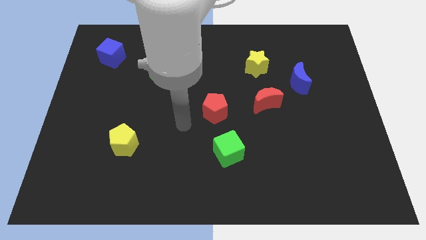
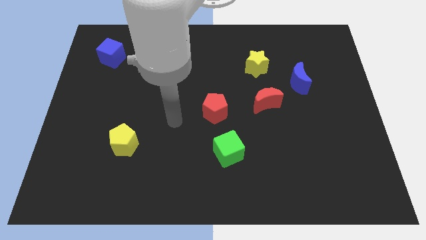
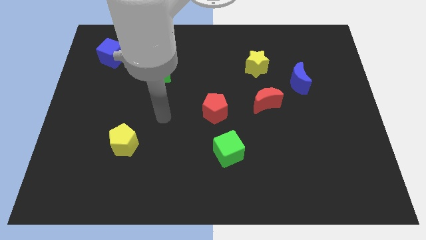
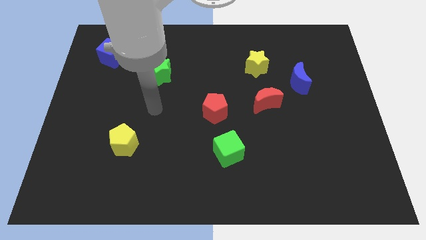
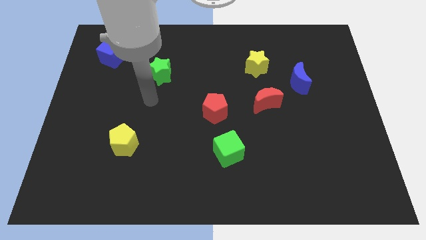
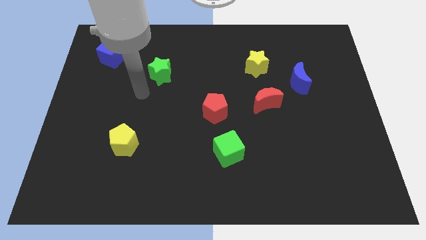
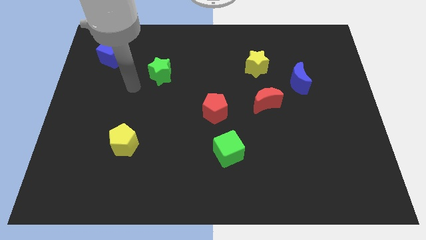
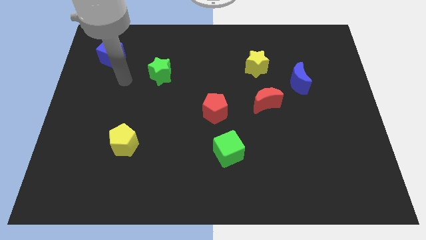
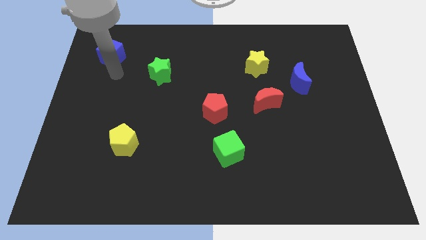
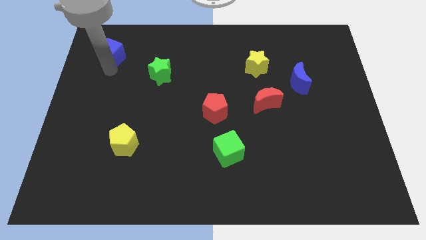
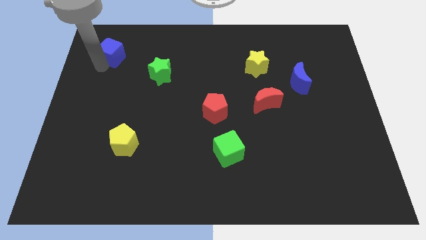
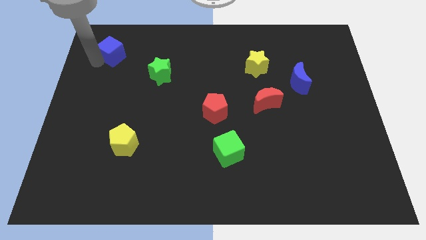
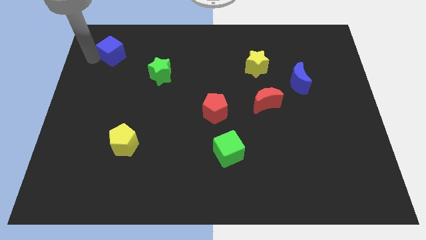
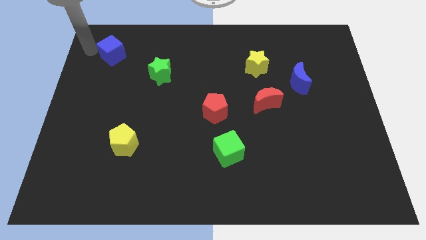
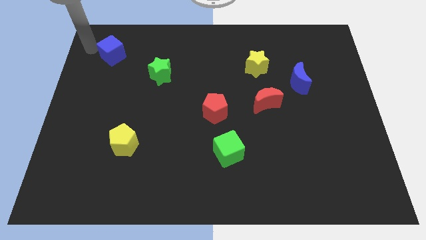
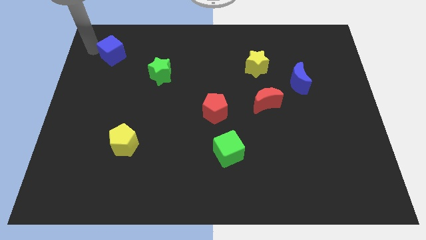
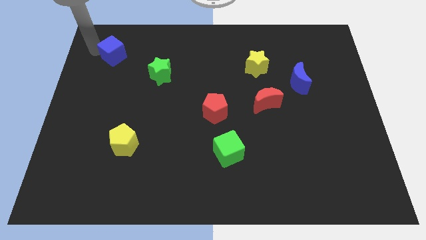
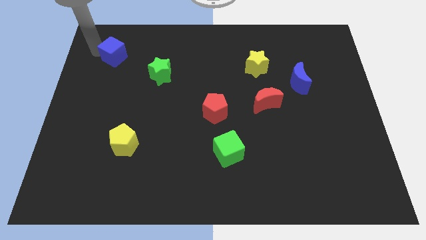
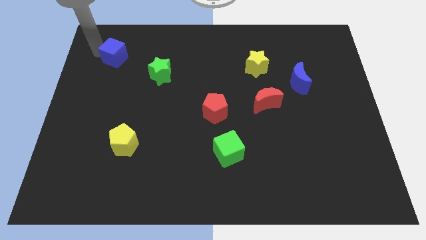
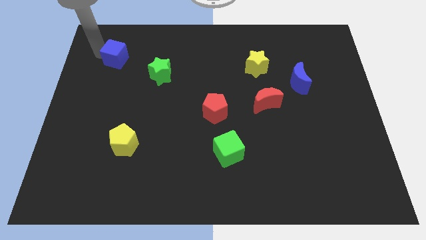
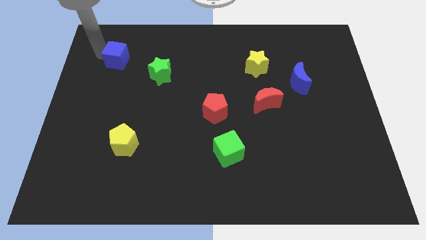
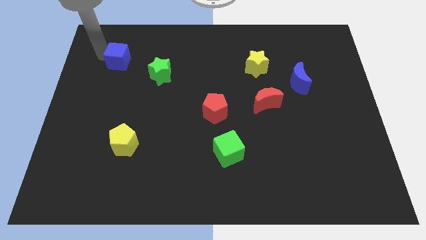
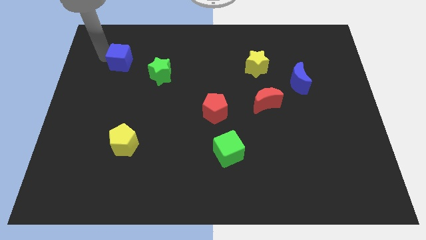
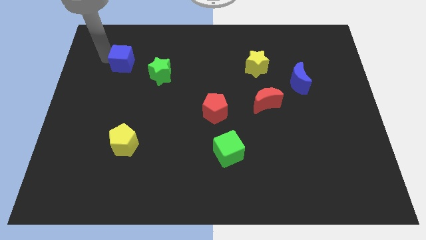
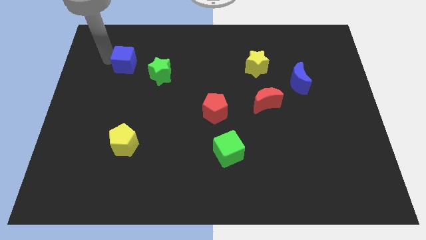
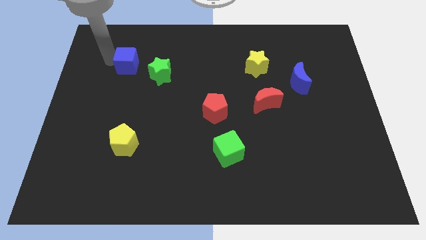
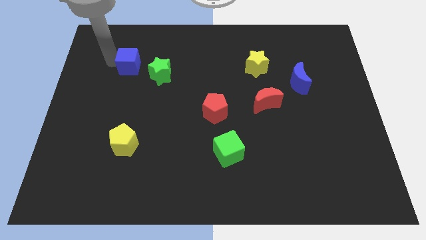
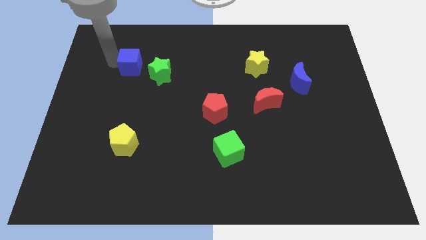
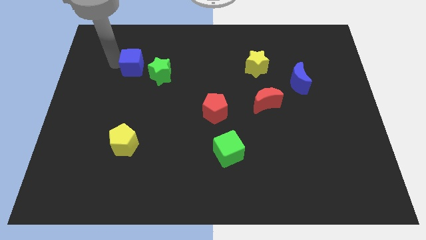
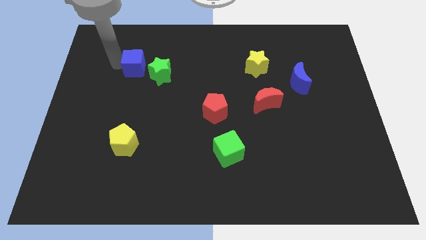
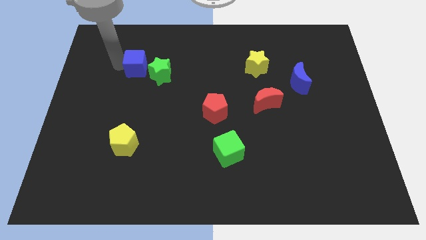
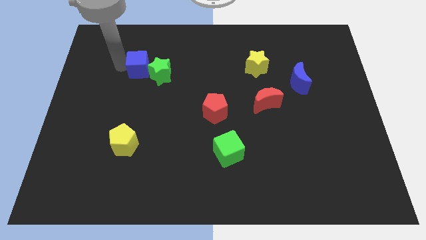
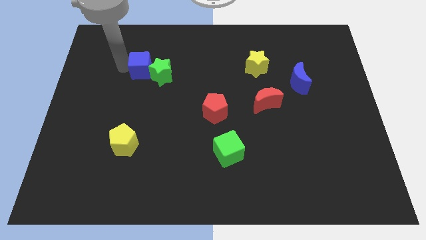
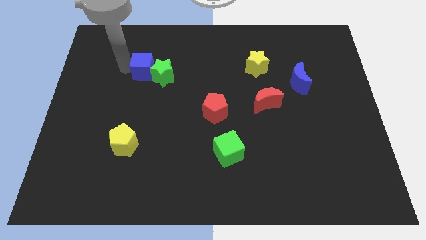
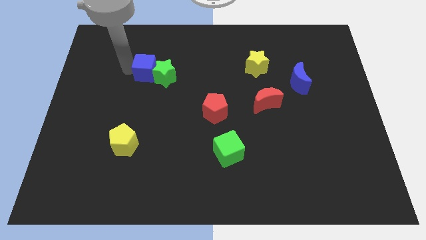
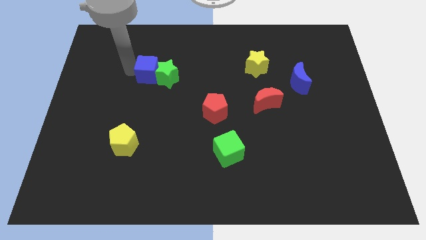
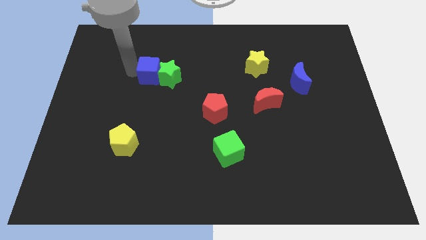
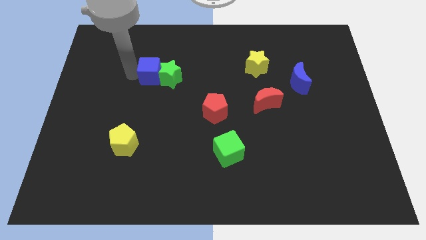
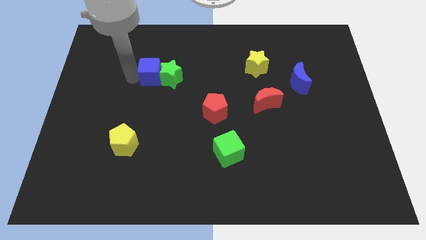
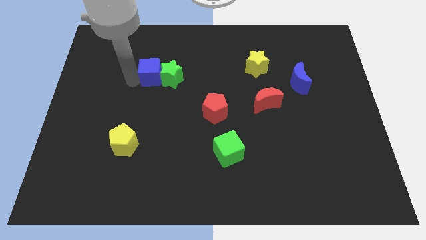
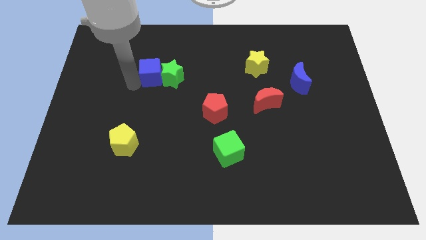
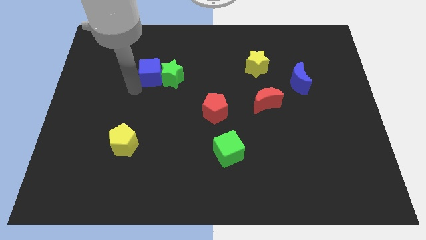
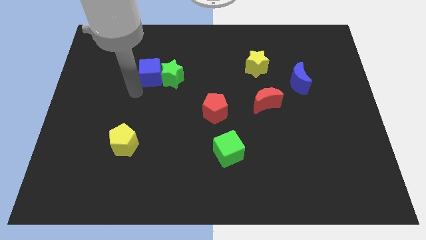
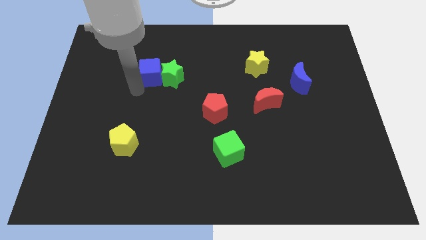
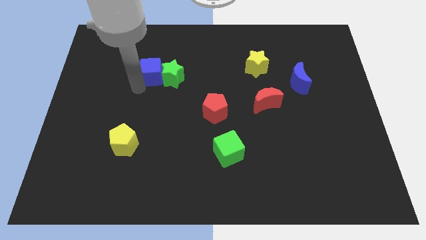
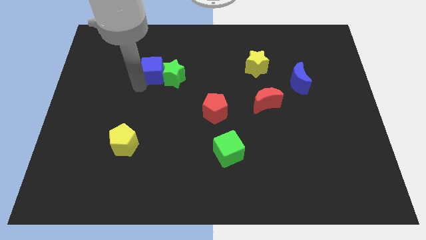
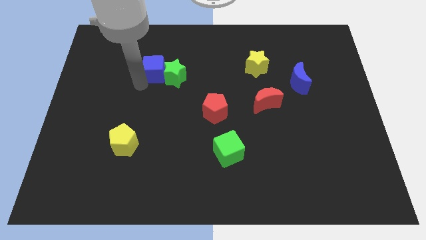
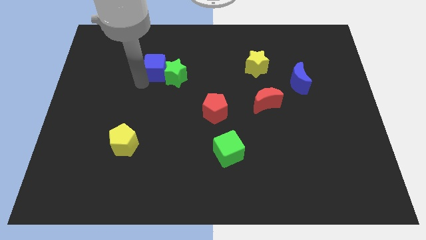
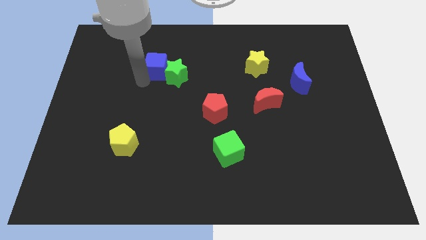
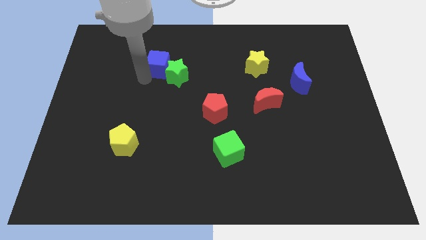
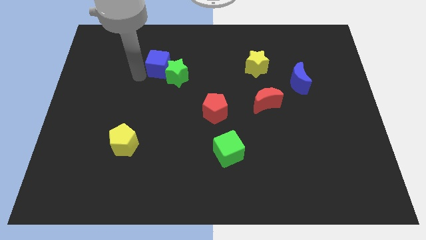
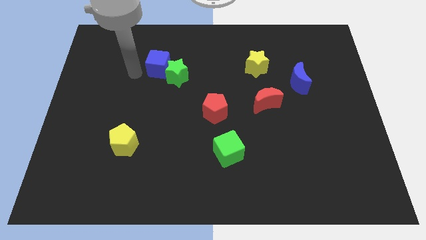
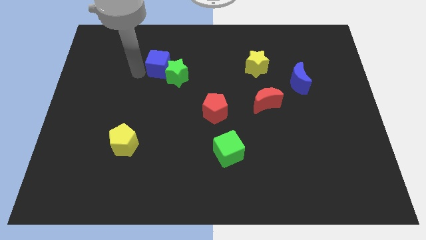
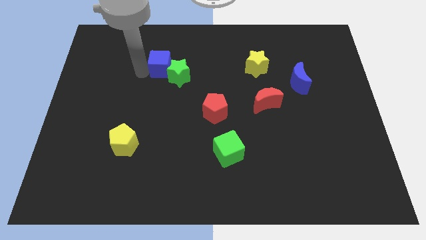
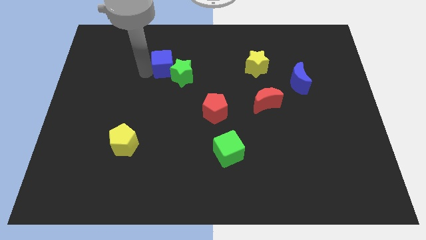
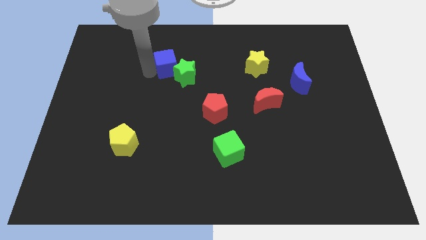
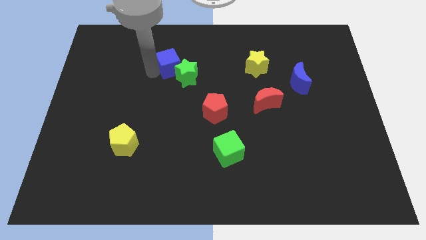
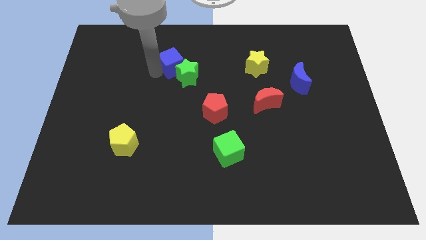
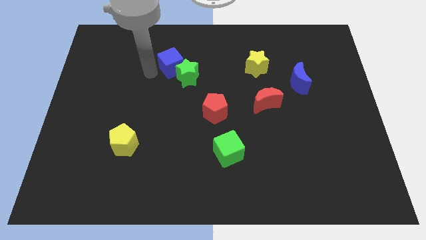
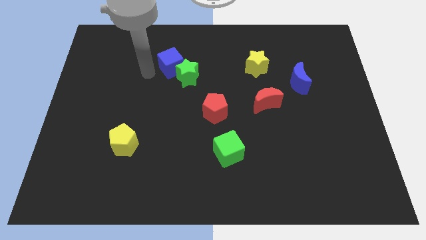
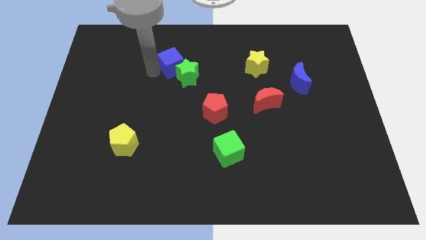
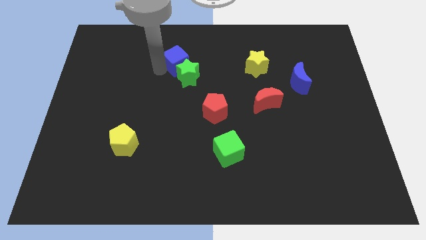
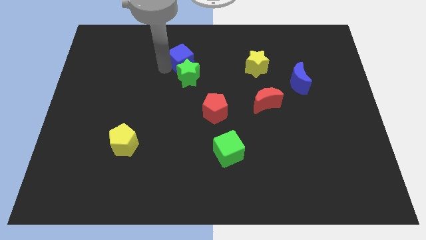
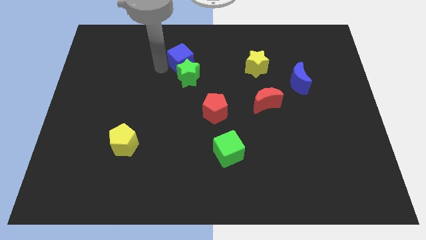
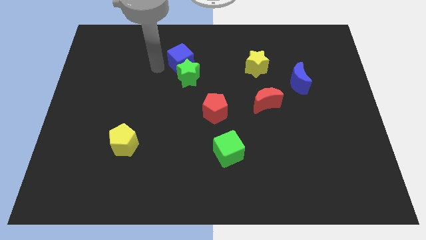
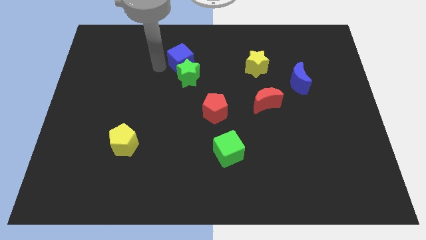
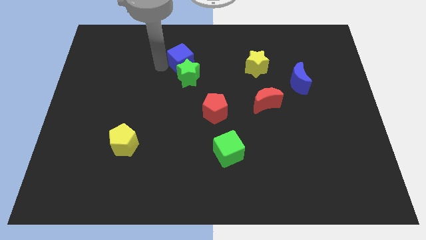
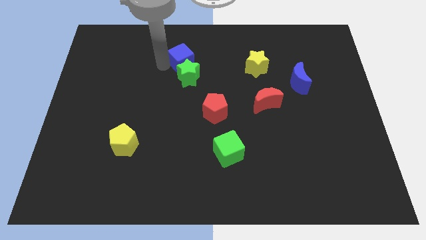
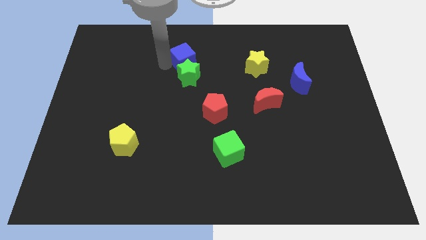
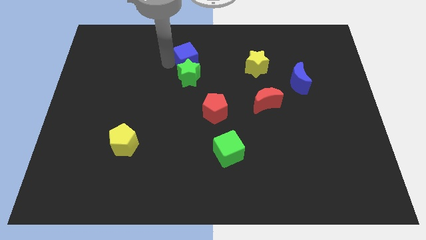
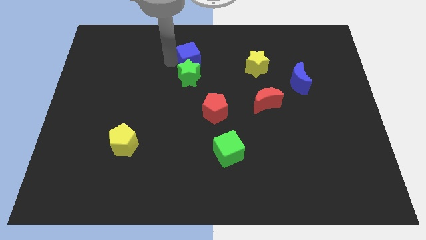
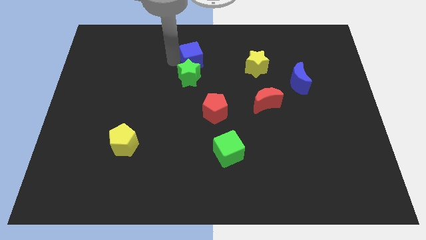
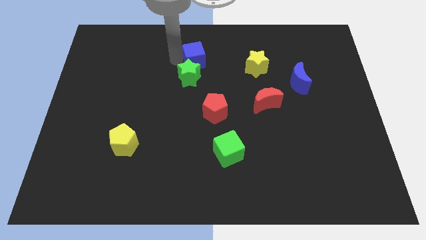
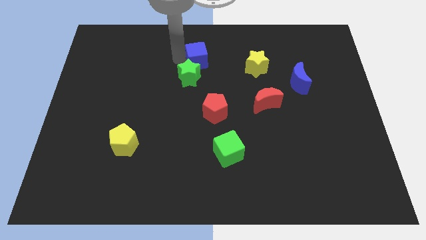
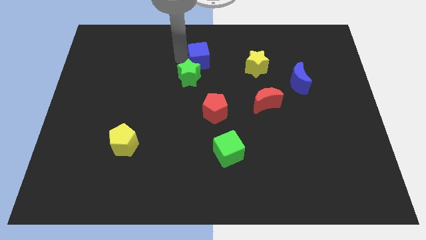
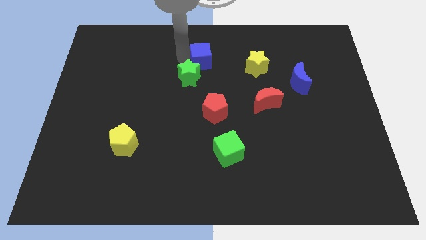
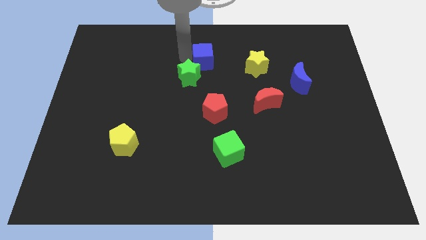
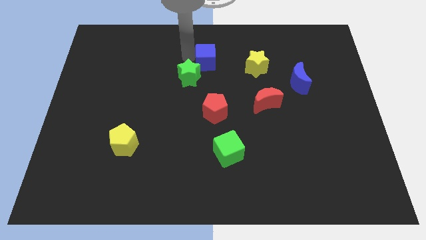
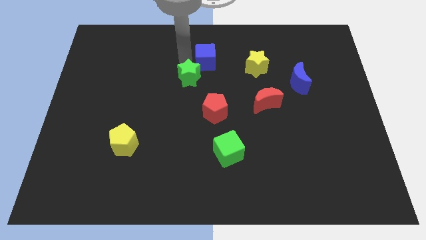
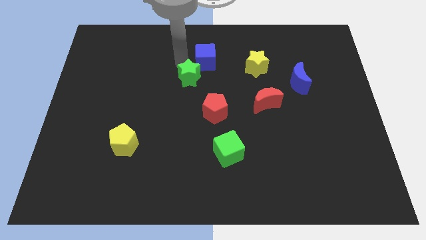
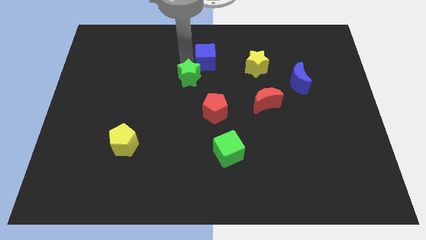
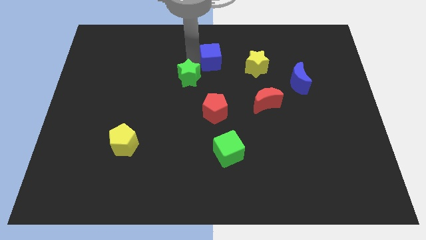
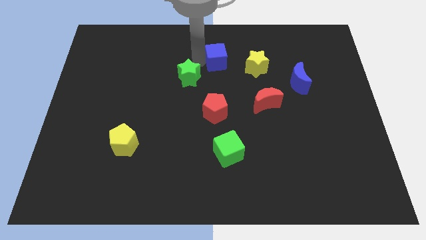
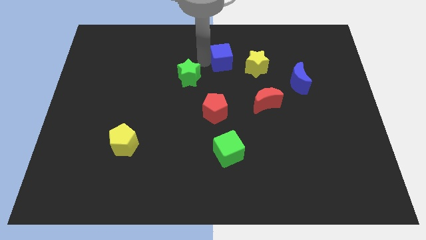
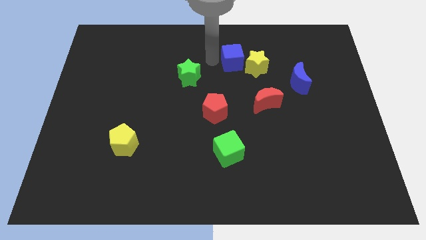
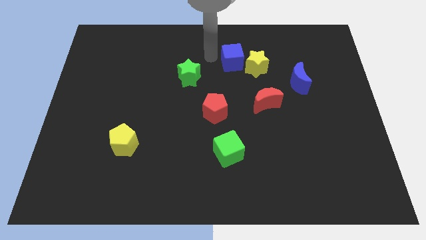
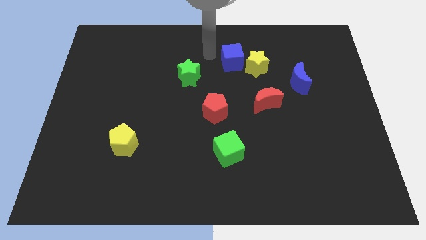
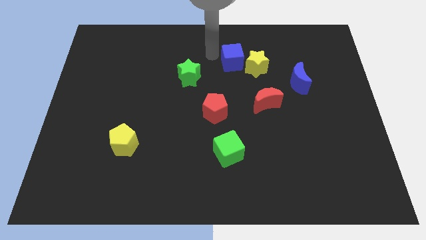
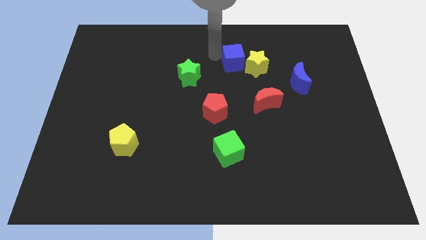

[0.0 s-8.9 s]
slide the blue cube close to the yellow star
